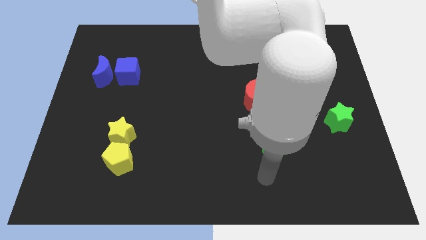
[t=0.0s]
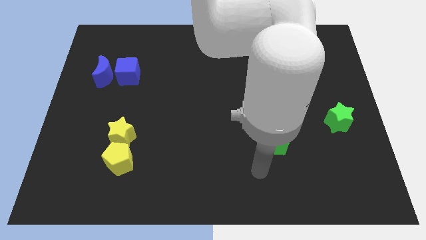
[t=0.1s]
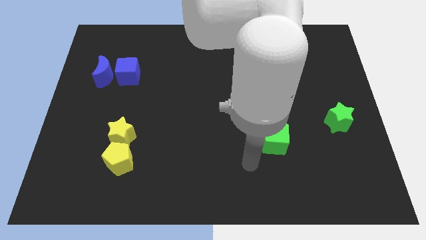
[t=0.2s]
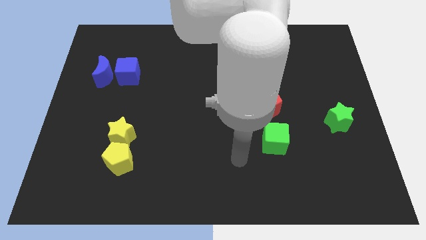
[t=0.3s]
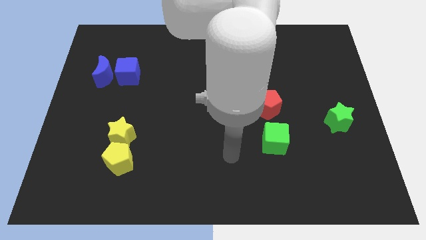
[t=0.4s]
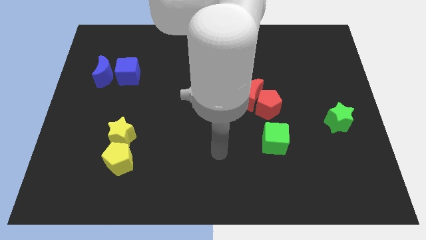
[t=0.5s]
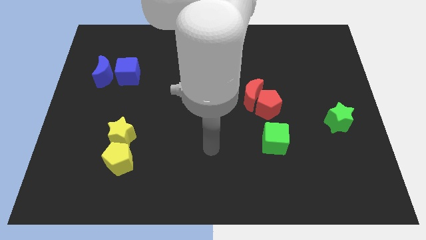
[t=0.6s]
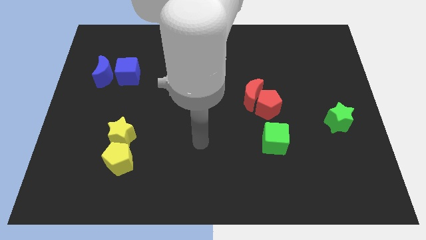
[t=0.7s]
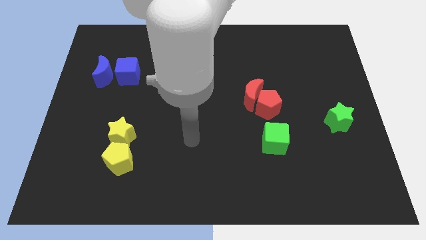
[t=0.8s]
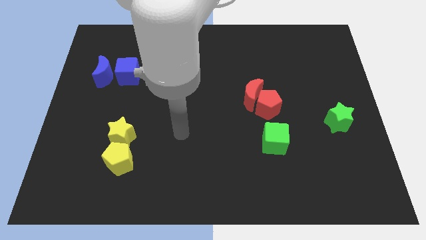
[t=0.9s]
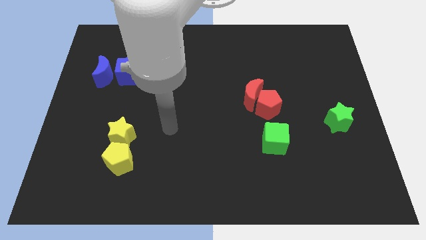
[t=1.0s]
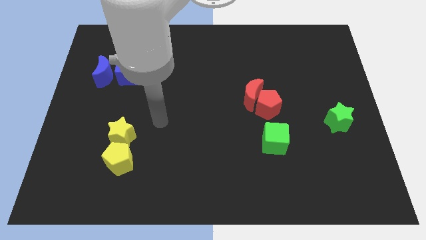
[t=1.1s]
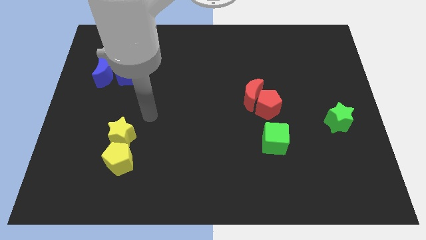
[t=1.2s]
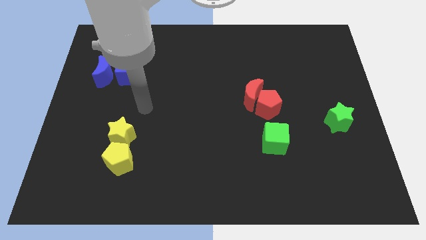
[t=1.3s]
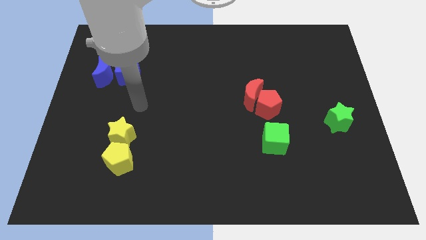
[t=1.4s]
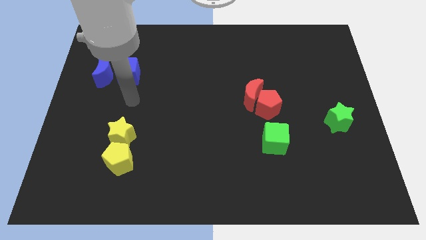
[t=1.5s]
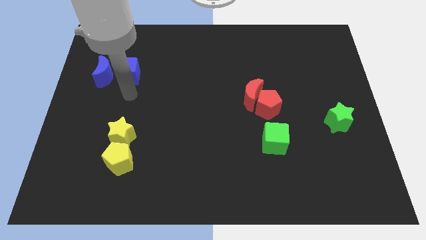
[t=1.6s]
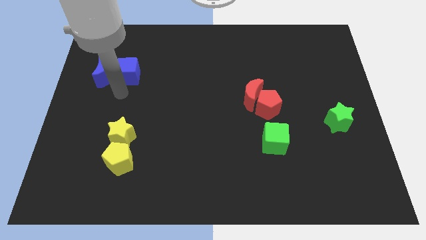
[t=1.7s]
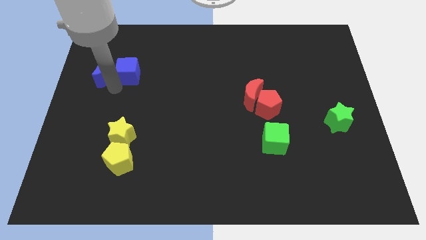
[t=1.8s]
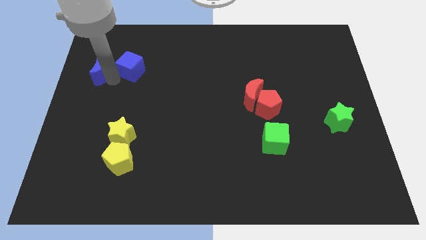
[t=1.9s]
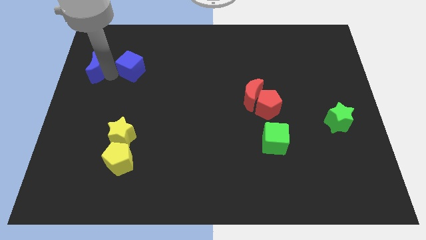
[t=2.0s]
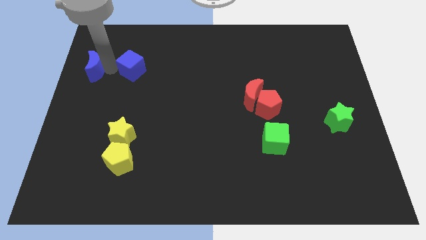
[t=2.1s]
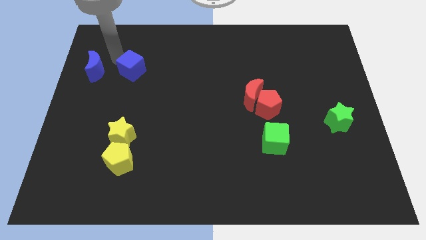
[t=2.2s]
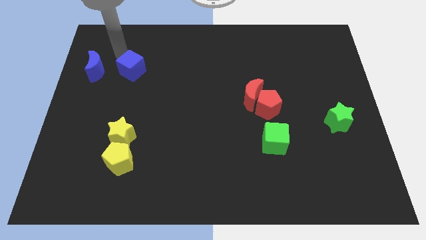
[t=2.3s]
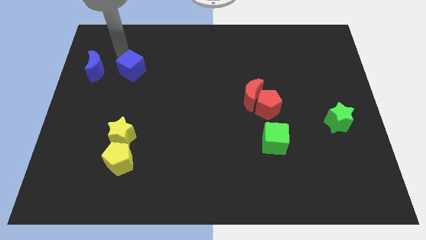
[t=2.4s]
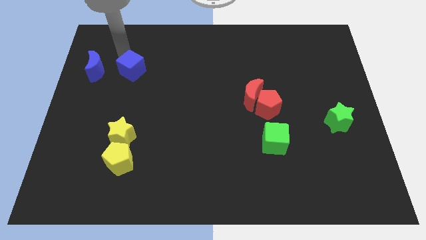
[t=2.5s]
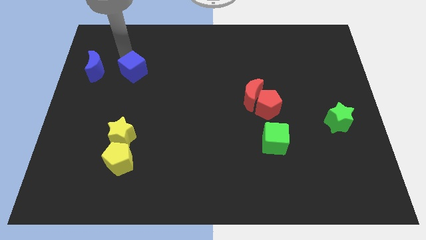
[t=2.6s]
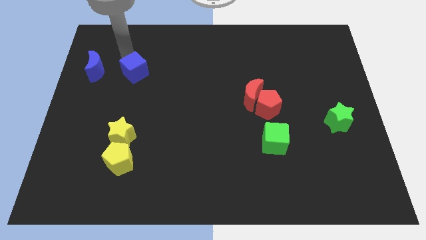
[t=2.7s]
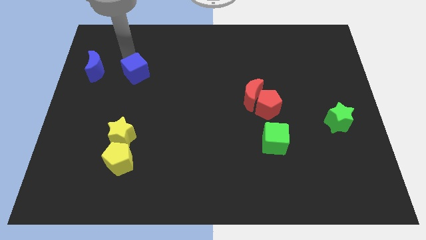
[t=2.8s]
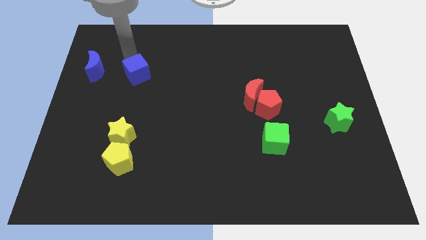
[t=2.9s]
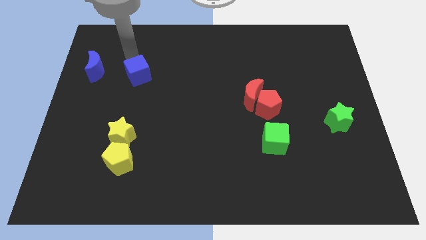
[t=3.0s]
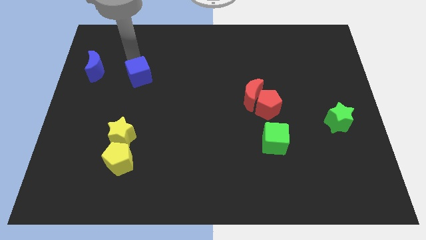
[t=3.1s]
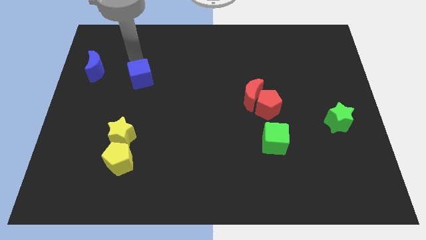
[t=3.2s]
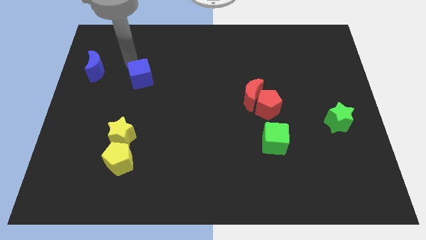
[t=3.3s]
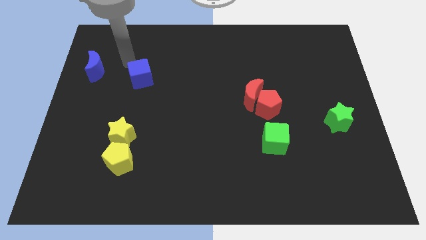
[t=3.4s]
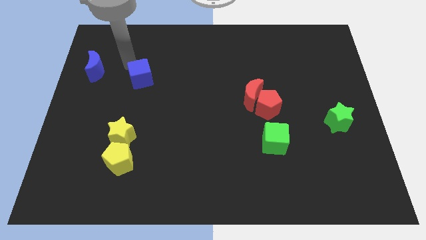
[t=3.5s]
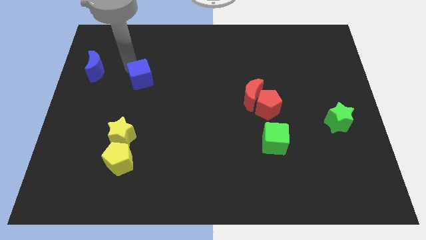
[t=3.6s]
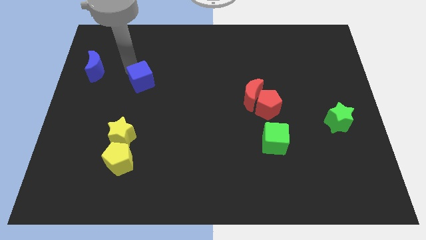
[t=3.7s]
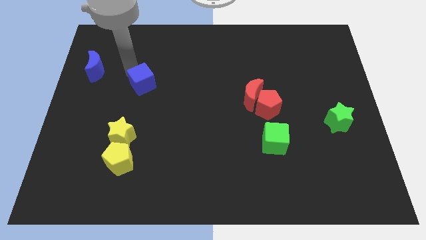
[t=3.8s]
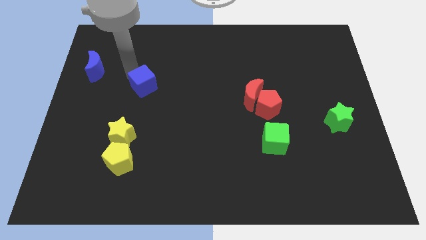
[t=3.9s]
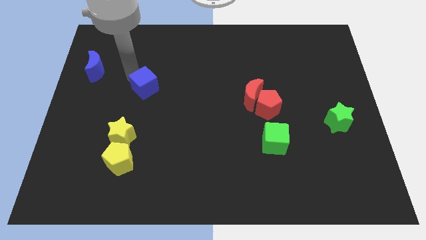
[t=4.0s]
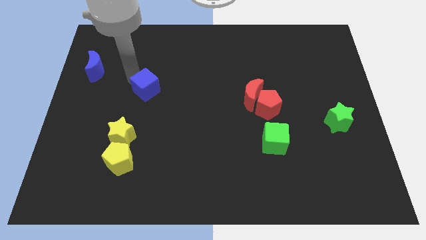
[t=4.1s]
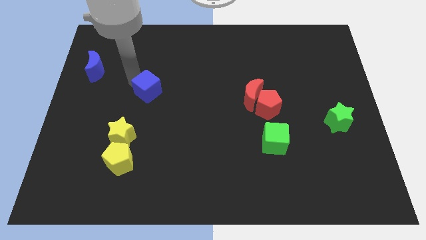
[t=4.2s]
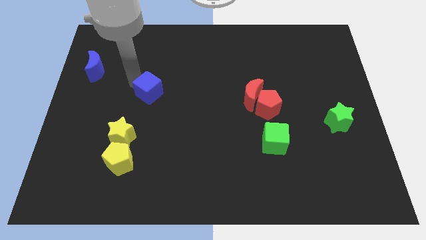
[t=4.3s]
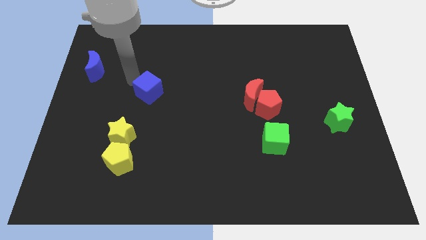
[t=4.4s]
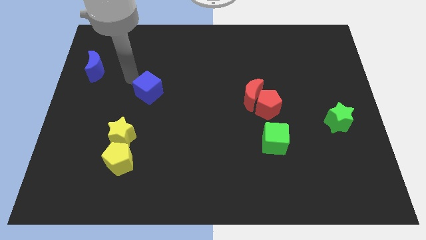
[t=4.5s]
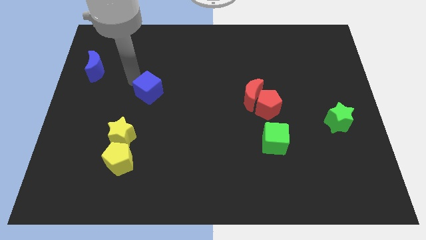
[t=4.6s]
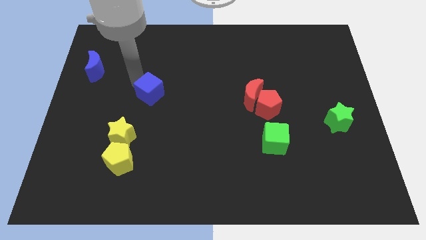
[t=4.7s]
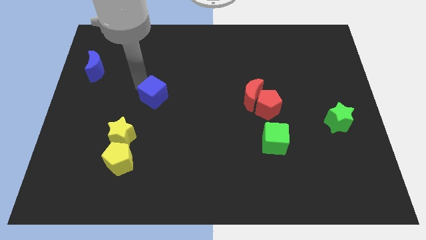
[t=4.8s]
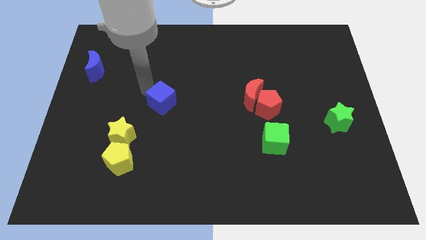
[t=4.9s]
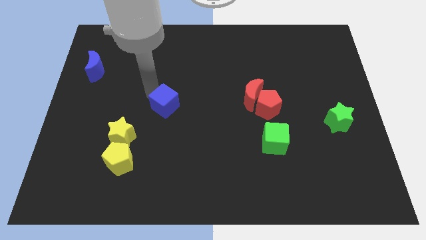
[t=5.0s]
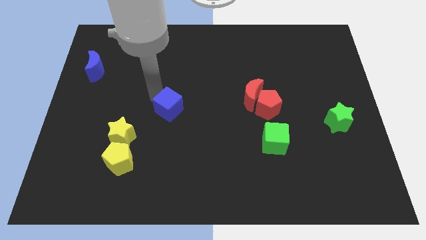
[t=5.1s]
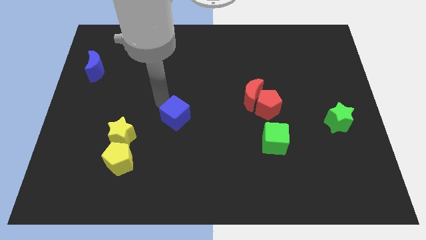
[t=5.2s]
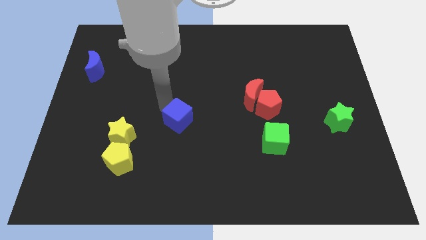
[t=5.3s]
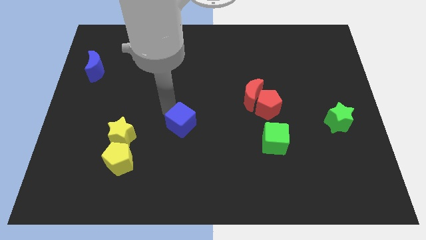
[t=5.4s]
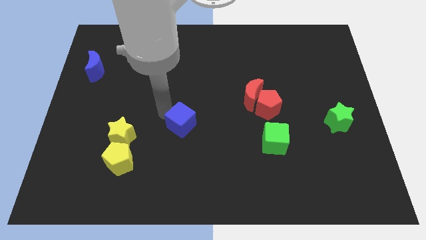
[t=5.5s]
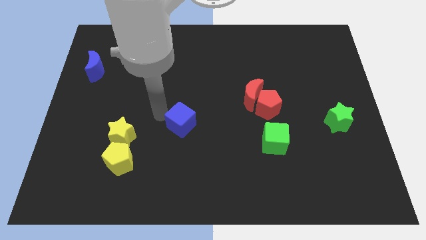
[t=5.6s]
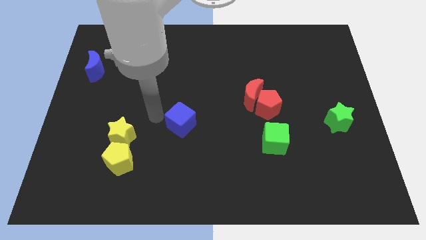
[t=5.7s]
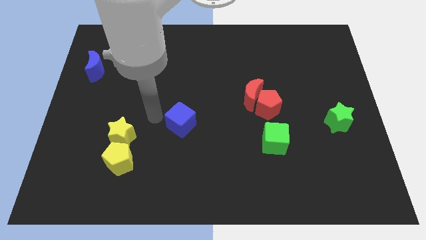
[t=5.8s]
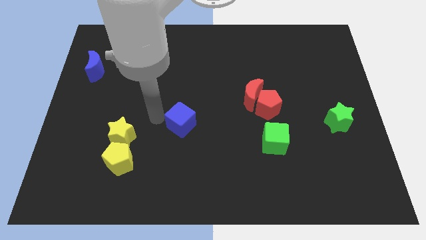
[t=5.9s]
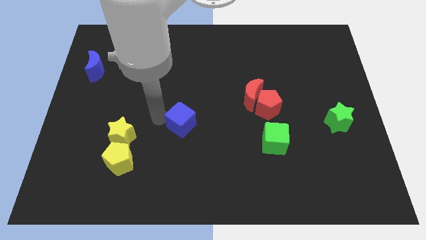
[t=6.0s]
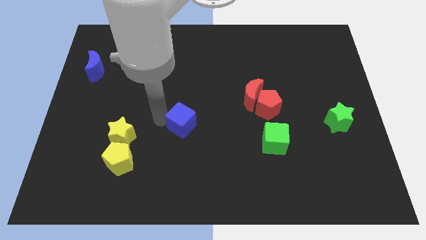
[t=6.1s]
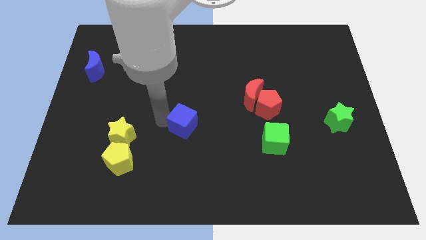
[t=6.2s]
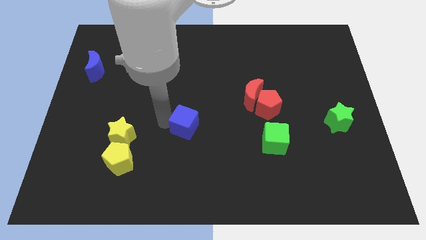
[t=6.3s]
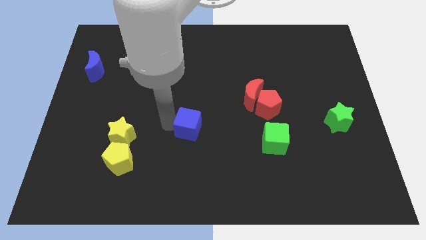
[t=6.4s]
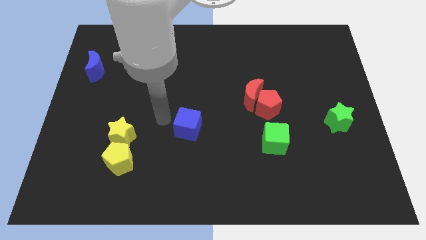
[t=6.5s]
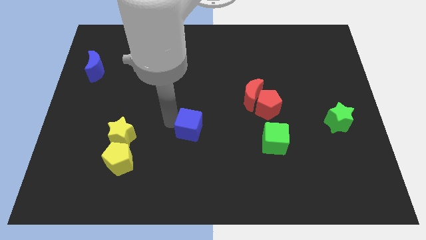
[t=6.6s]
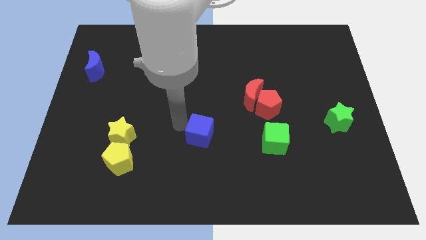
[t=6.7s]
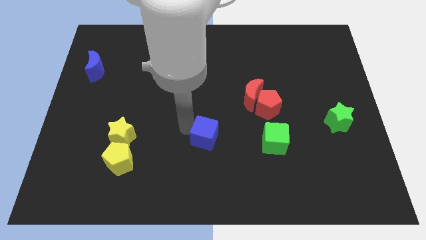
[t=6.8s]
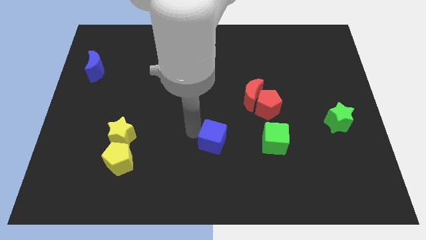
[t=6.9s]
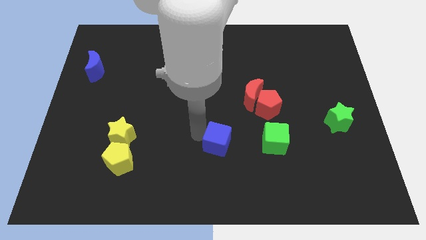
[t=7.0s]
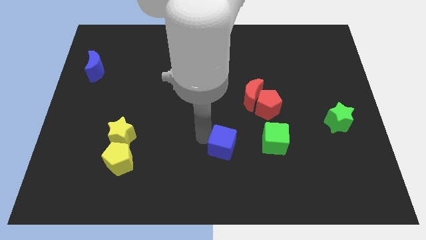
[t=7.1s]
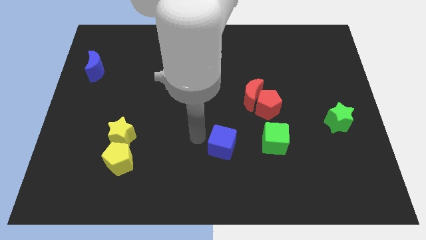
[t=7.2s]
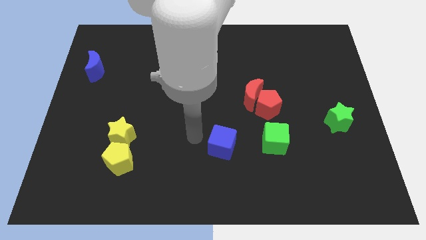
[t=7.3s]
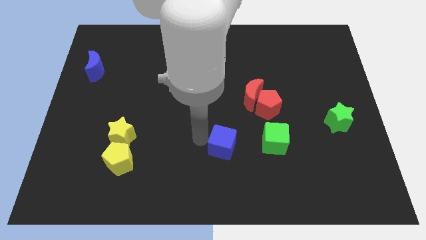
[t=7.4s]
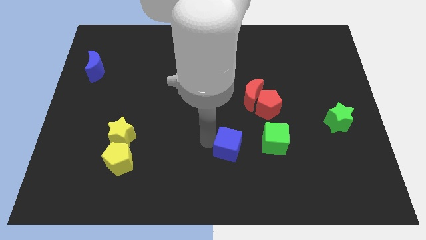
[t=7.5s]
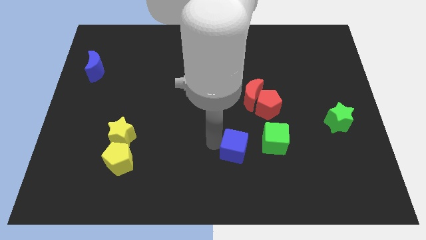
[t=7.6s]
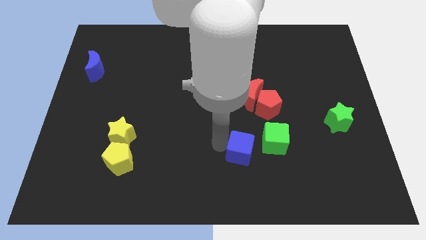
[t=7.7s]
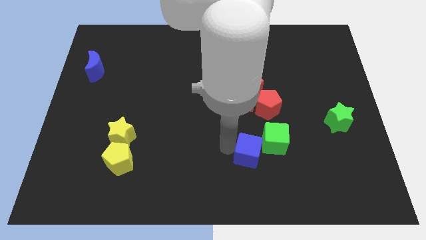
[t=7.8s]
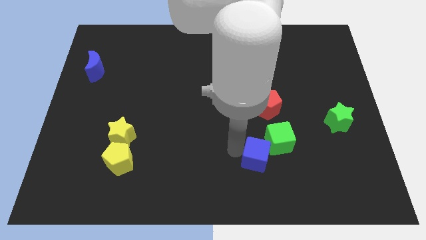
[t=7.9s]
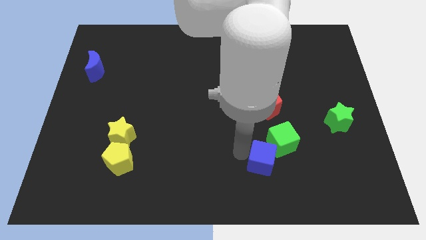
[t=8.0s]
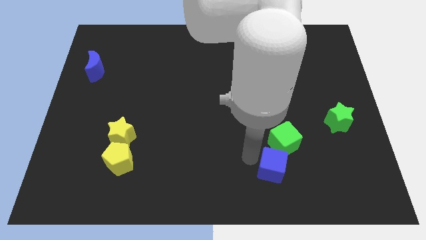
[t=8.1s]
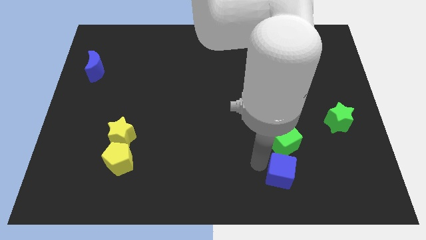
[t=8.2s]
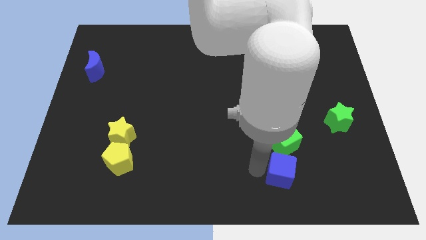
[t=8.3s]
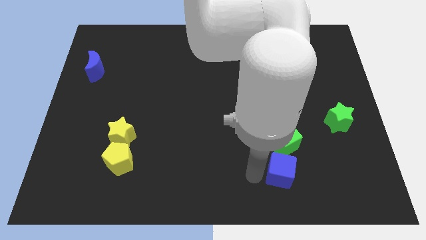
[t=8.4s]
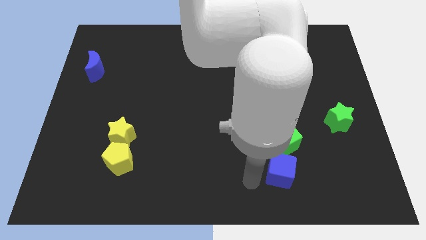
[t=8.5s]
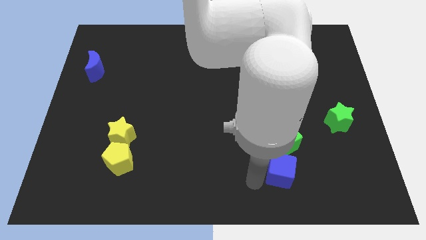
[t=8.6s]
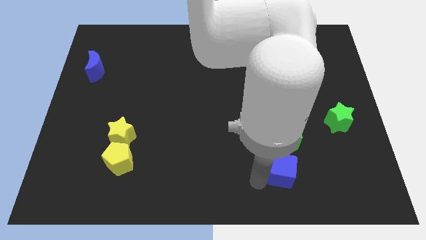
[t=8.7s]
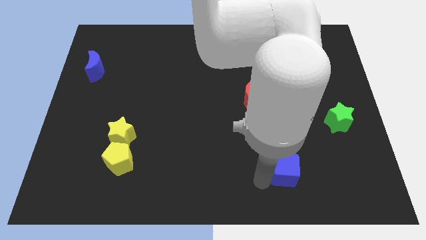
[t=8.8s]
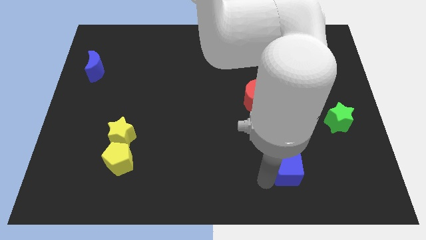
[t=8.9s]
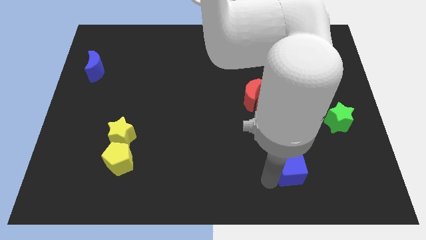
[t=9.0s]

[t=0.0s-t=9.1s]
put the blue cube to the bottom right side of the green cube
